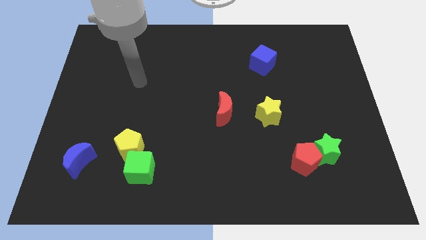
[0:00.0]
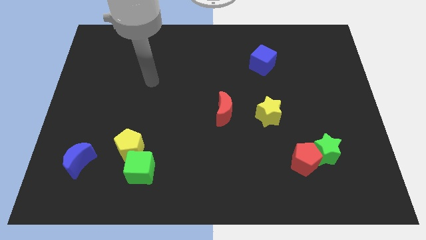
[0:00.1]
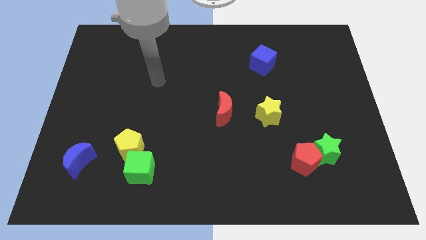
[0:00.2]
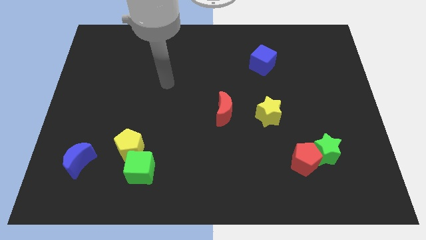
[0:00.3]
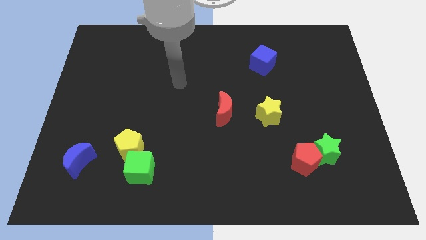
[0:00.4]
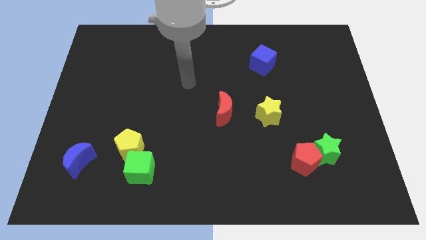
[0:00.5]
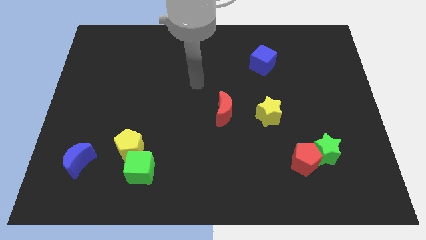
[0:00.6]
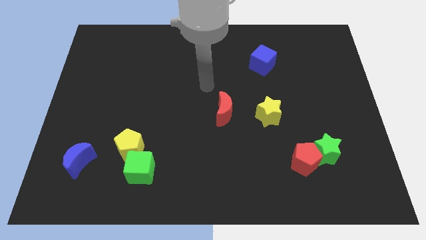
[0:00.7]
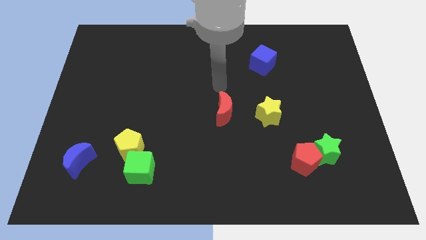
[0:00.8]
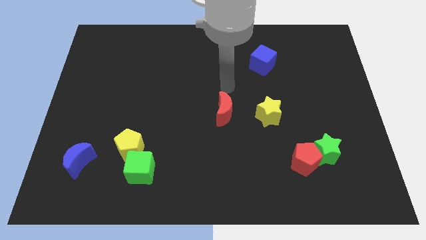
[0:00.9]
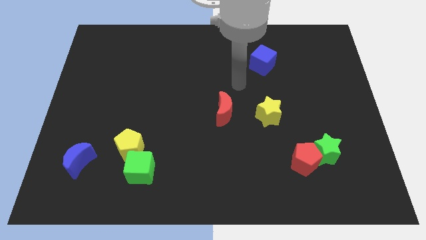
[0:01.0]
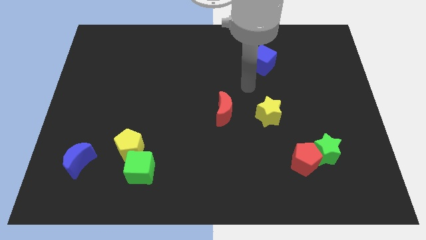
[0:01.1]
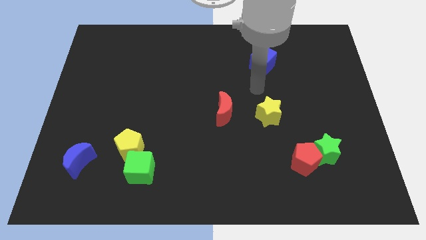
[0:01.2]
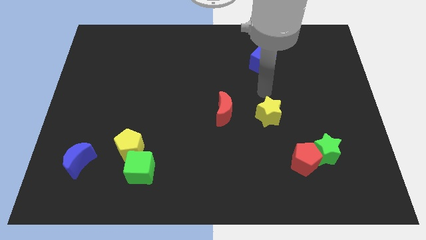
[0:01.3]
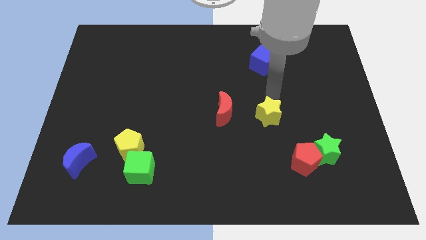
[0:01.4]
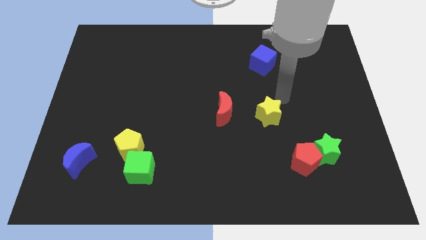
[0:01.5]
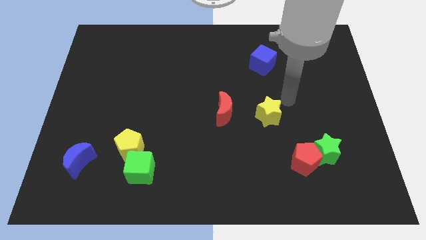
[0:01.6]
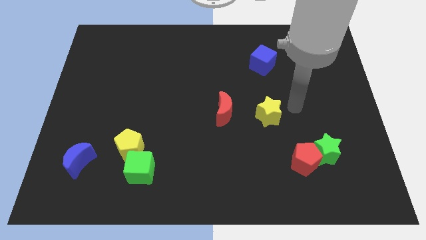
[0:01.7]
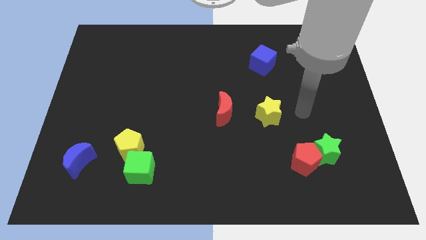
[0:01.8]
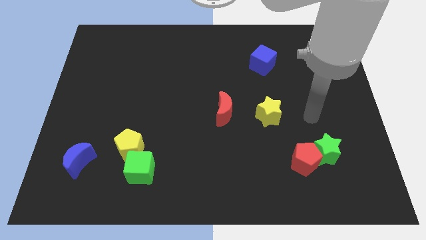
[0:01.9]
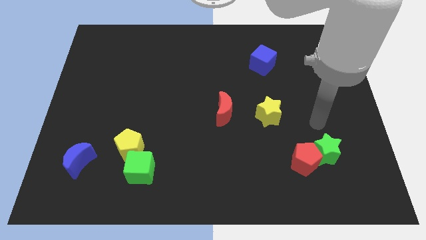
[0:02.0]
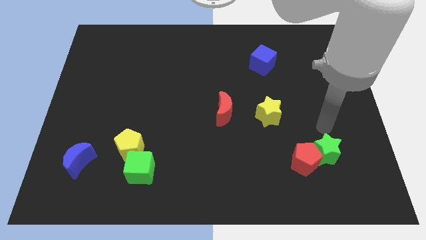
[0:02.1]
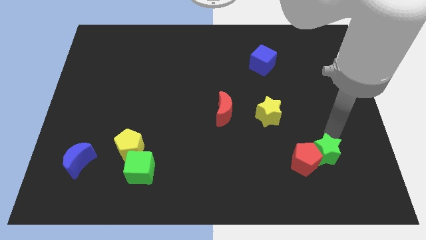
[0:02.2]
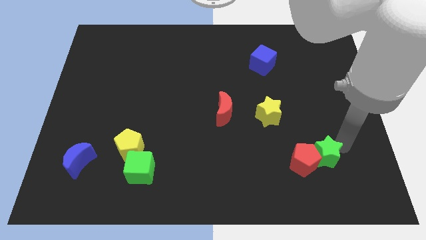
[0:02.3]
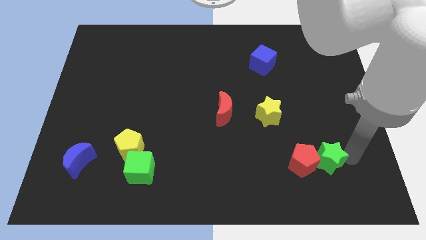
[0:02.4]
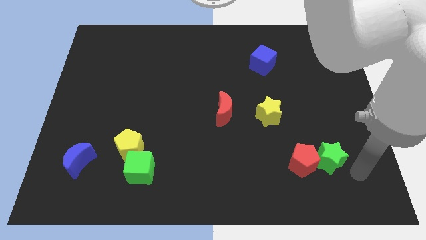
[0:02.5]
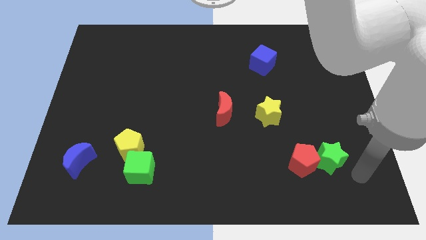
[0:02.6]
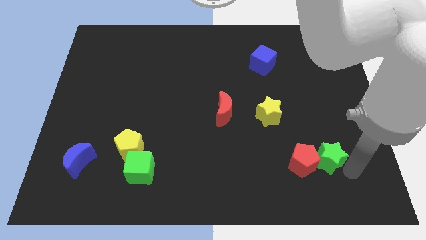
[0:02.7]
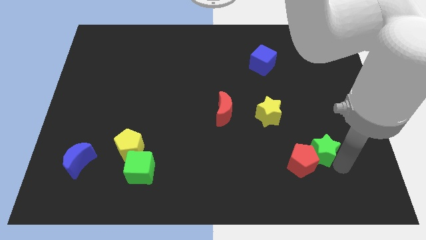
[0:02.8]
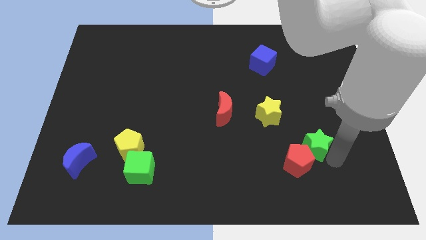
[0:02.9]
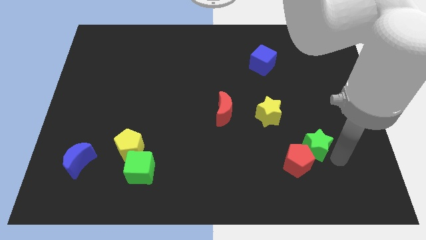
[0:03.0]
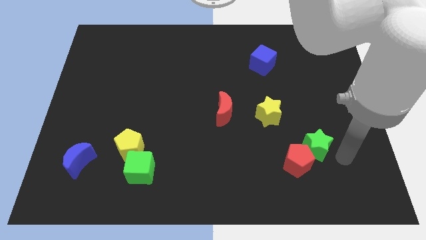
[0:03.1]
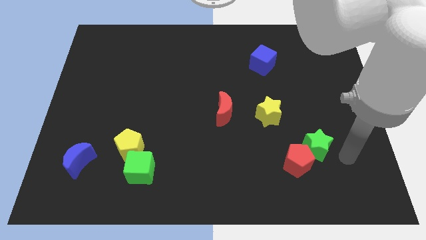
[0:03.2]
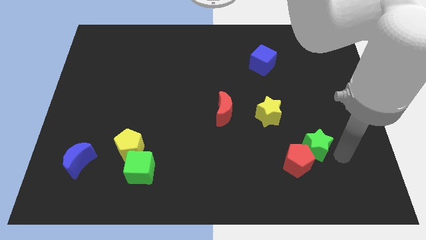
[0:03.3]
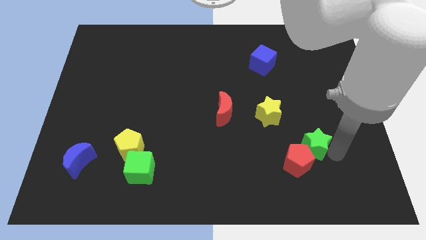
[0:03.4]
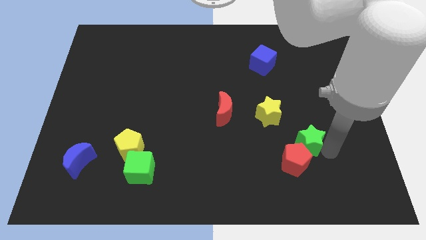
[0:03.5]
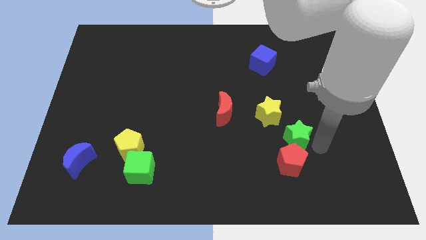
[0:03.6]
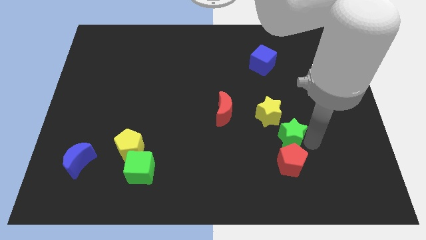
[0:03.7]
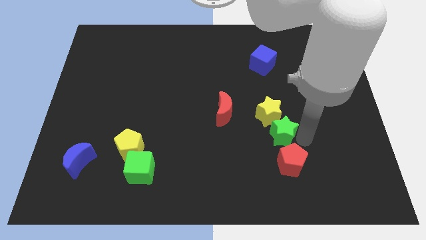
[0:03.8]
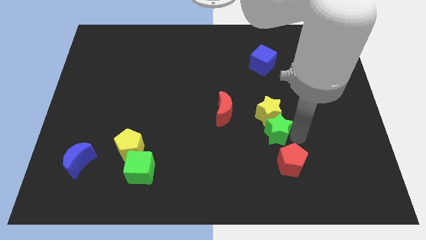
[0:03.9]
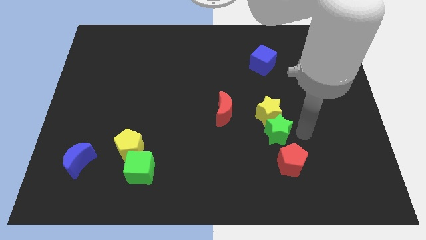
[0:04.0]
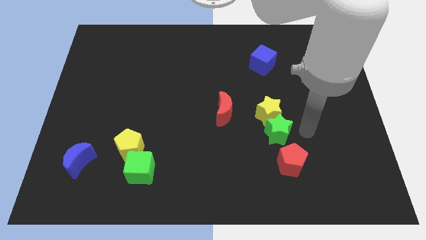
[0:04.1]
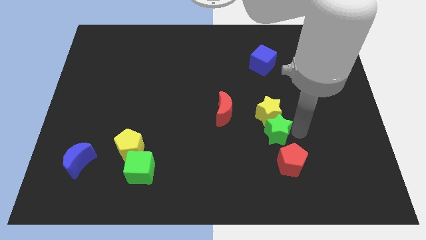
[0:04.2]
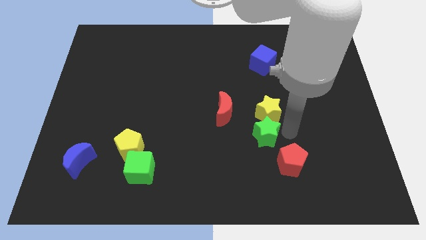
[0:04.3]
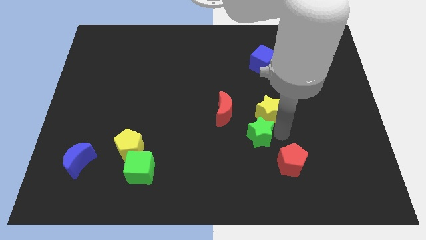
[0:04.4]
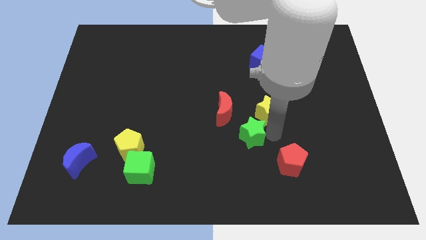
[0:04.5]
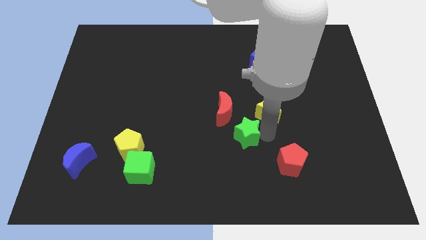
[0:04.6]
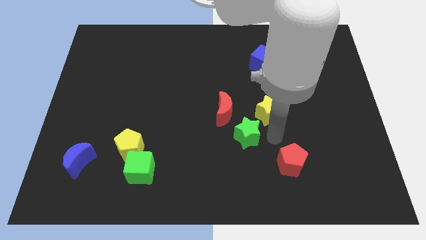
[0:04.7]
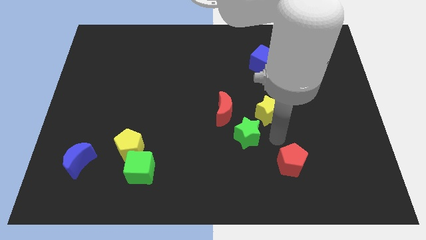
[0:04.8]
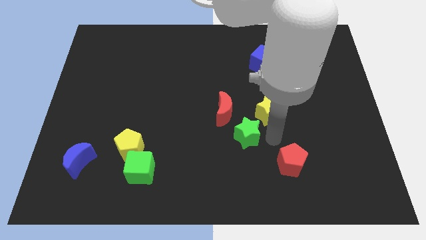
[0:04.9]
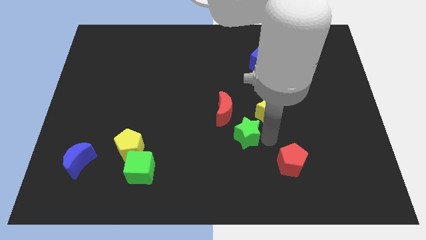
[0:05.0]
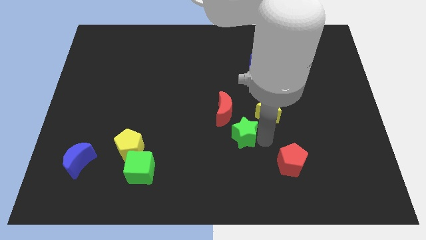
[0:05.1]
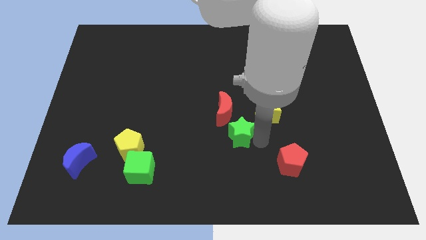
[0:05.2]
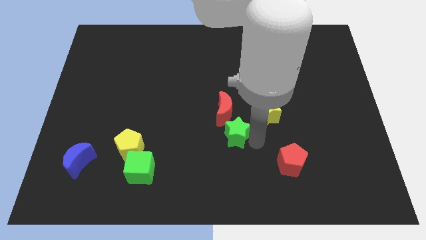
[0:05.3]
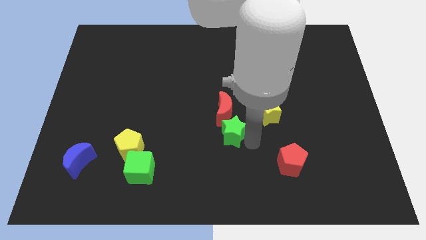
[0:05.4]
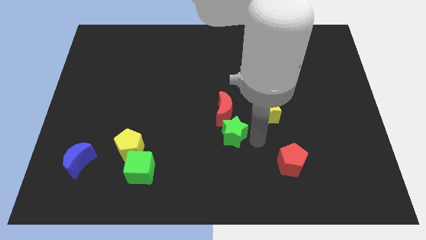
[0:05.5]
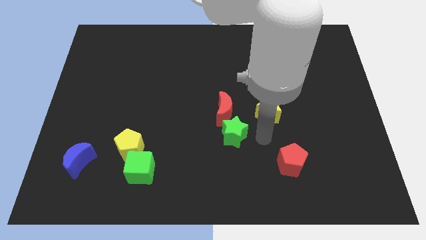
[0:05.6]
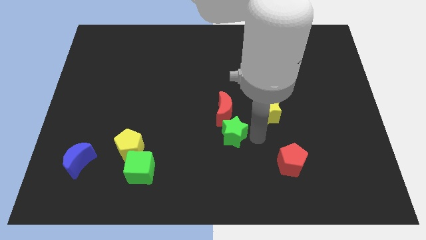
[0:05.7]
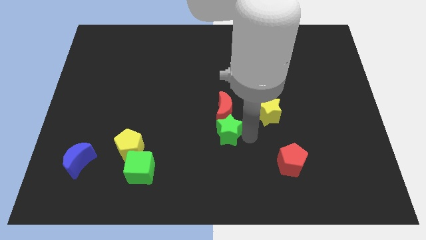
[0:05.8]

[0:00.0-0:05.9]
slide the green star to the bottom left of the red moon
